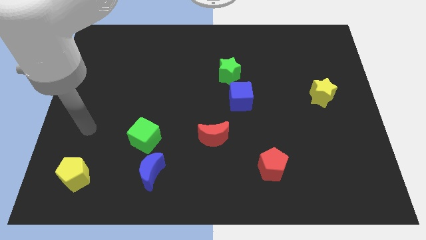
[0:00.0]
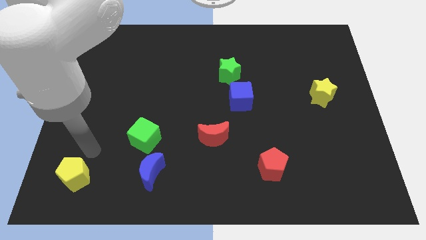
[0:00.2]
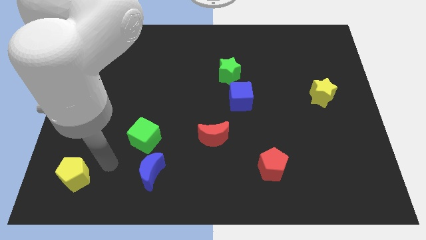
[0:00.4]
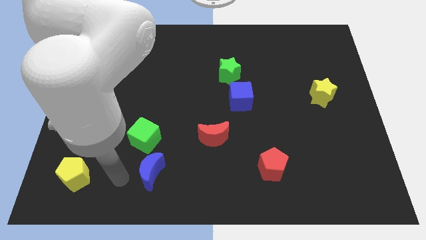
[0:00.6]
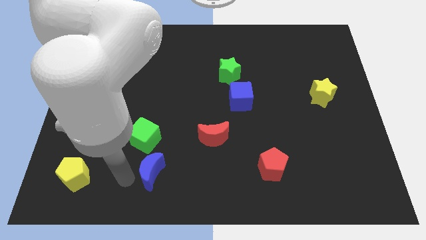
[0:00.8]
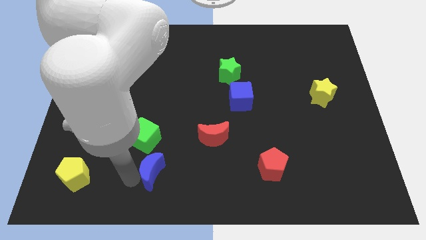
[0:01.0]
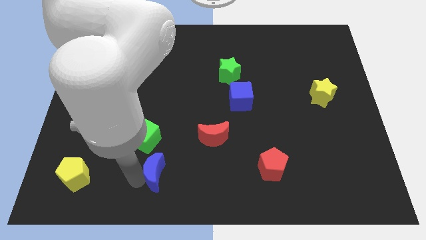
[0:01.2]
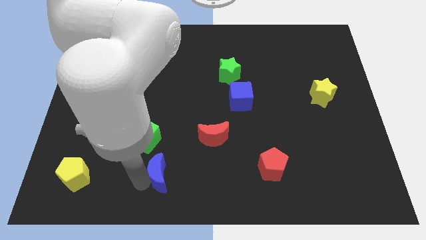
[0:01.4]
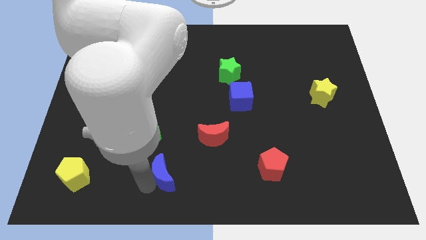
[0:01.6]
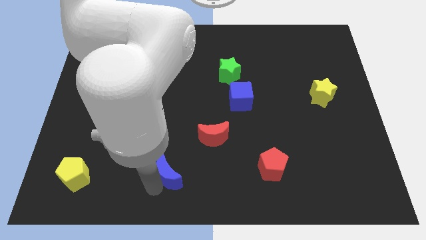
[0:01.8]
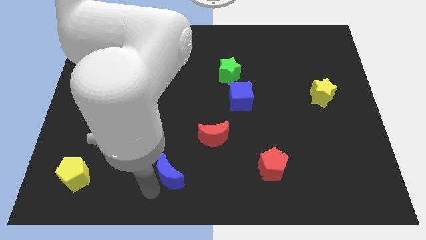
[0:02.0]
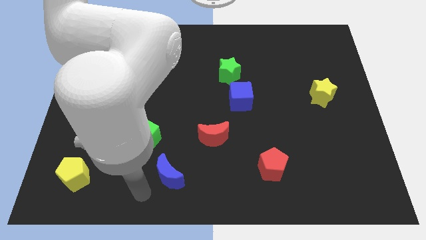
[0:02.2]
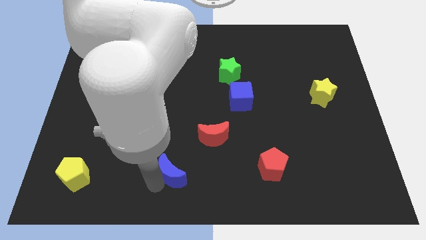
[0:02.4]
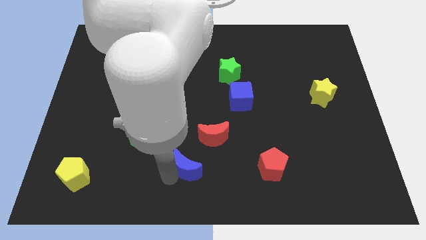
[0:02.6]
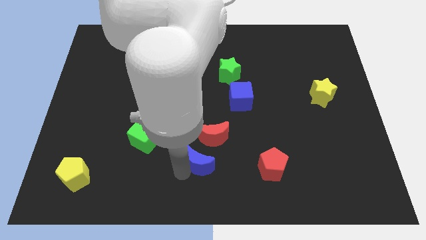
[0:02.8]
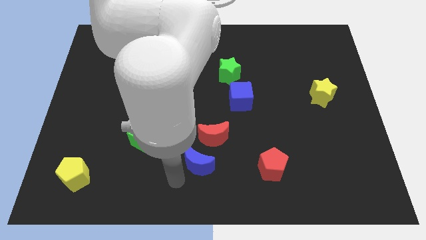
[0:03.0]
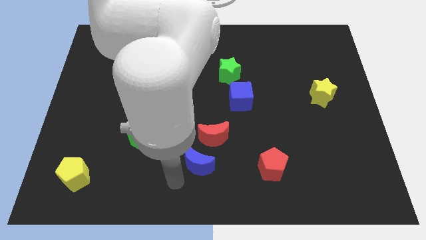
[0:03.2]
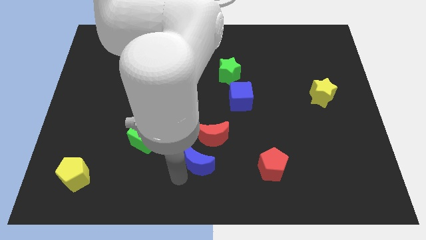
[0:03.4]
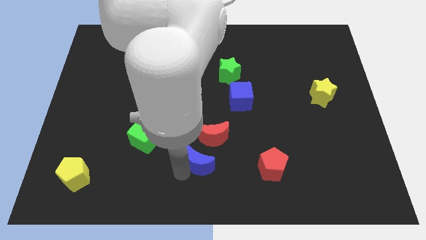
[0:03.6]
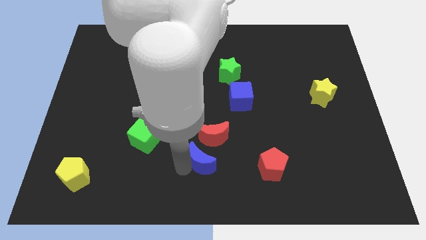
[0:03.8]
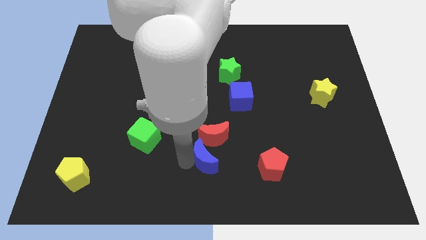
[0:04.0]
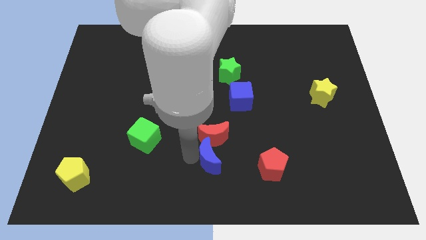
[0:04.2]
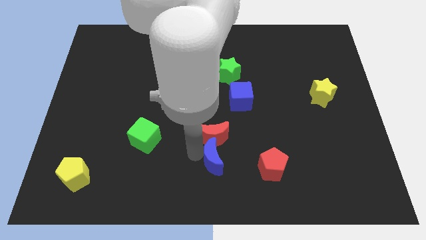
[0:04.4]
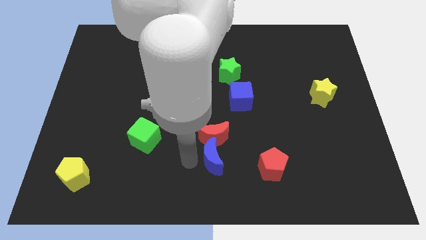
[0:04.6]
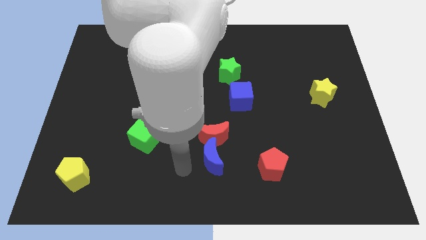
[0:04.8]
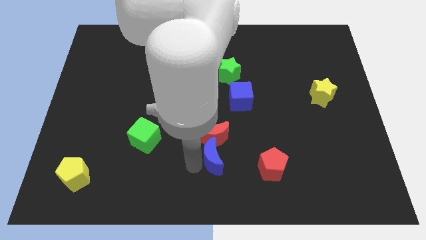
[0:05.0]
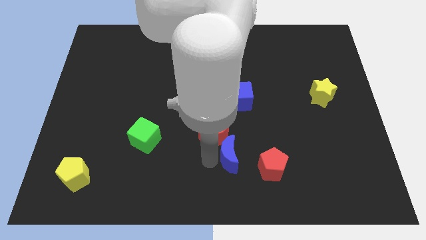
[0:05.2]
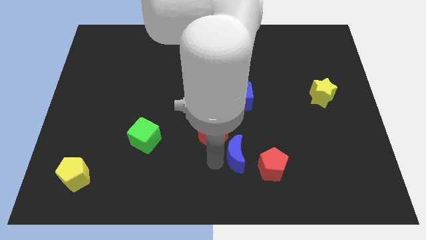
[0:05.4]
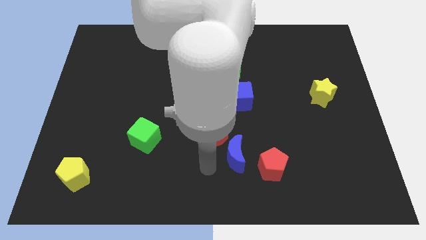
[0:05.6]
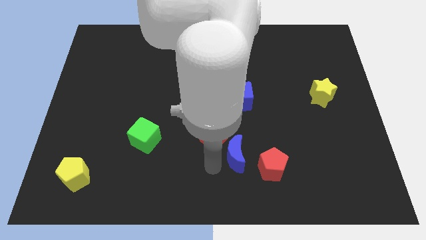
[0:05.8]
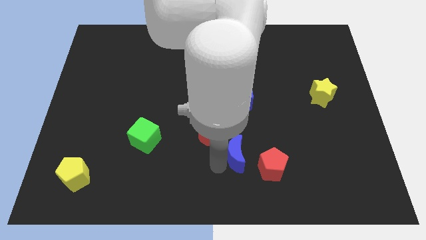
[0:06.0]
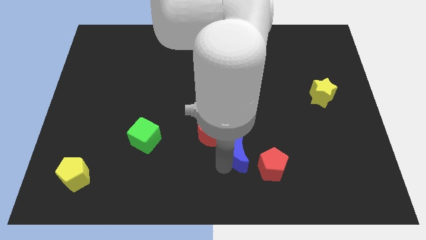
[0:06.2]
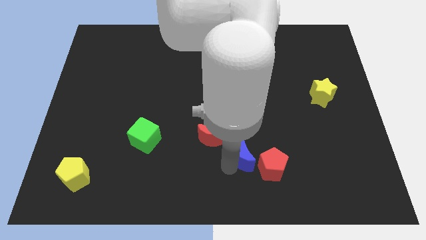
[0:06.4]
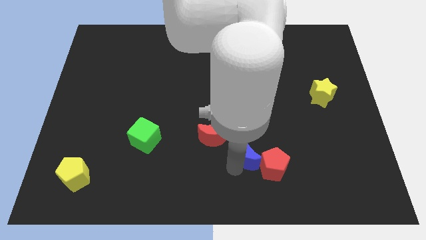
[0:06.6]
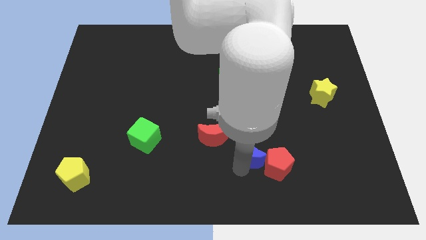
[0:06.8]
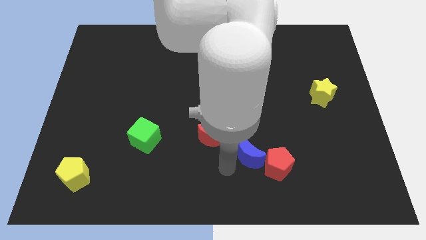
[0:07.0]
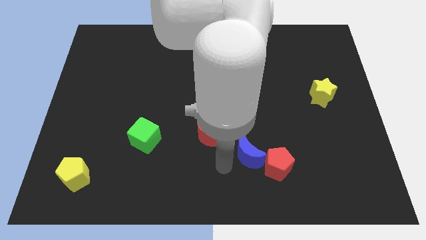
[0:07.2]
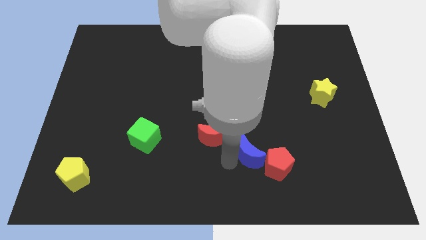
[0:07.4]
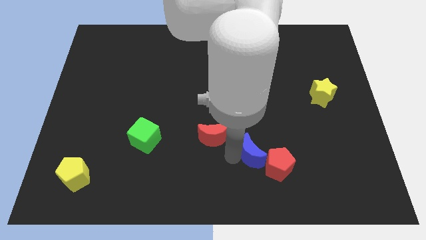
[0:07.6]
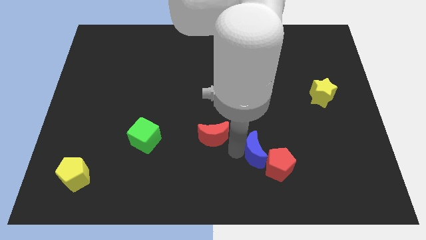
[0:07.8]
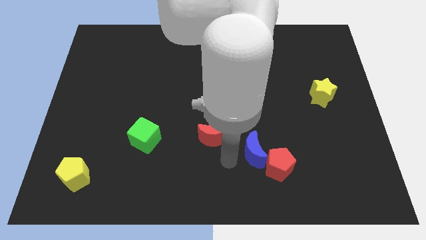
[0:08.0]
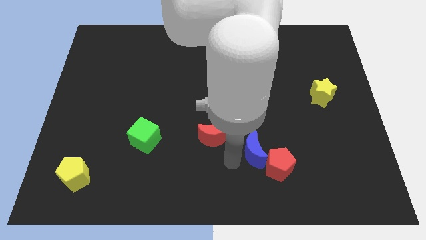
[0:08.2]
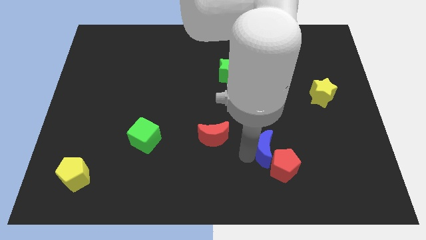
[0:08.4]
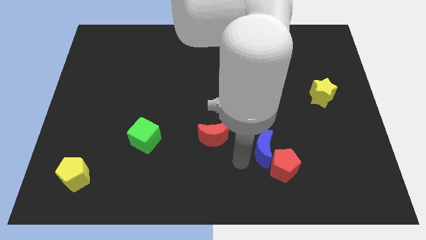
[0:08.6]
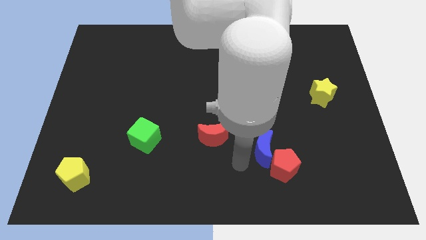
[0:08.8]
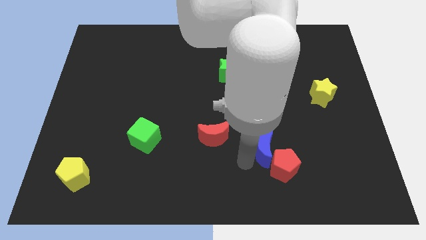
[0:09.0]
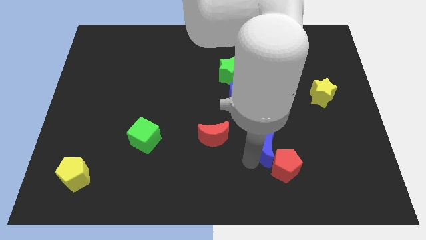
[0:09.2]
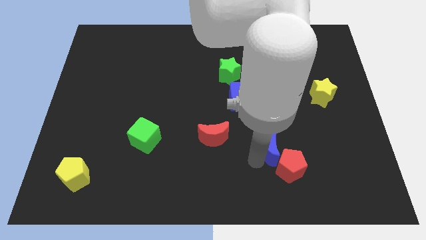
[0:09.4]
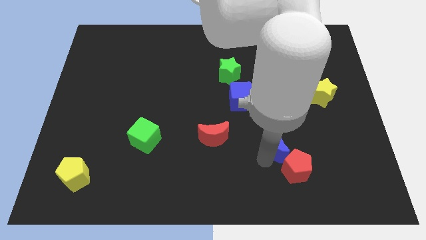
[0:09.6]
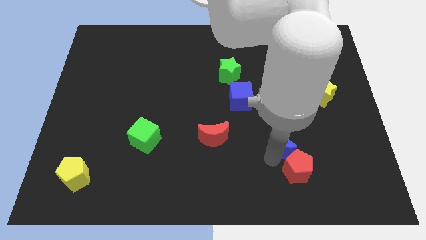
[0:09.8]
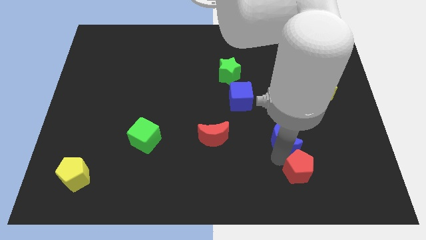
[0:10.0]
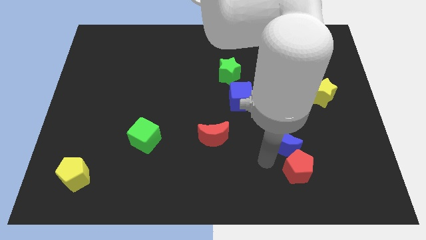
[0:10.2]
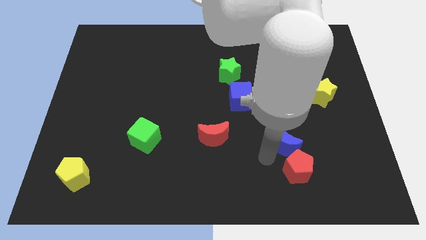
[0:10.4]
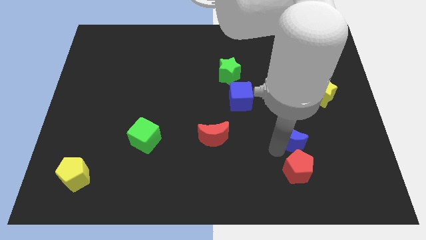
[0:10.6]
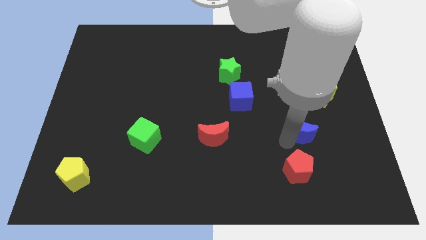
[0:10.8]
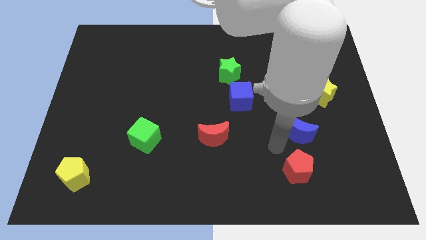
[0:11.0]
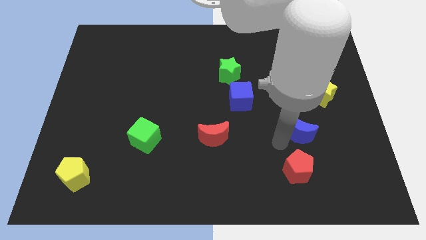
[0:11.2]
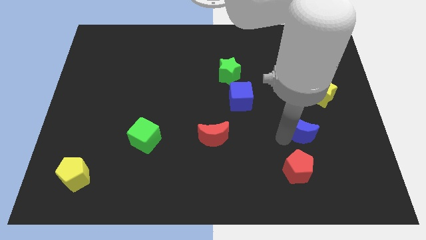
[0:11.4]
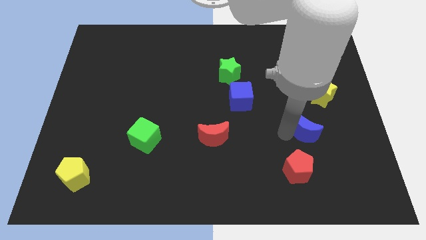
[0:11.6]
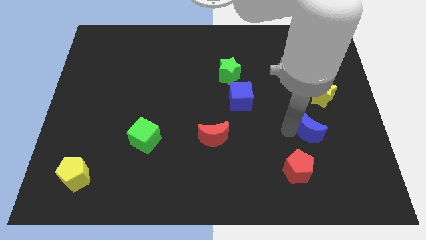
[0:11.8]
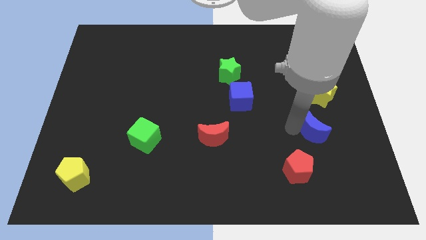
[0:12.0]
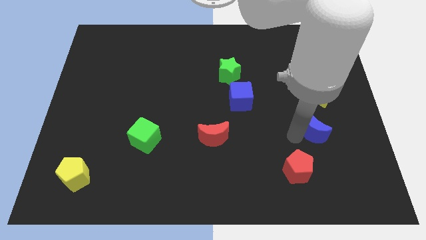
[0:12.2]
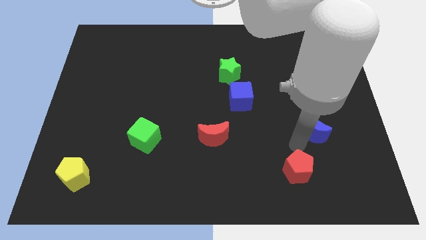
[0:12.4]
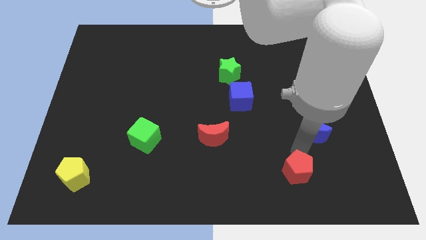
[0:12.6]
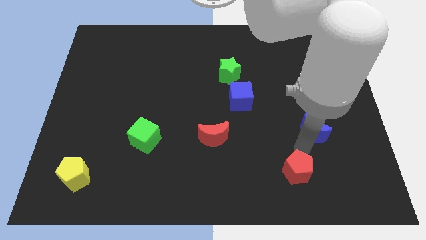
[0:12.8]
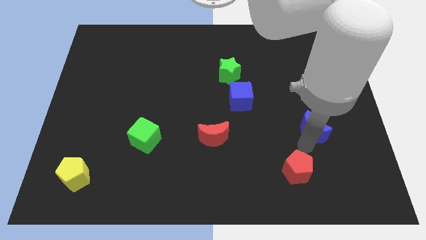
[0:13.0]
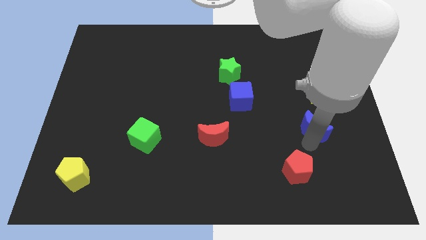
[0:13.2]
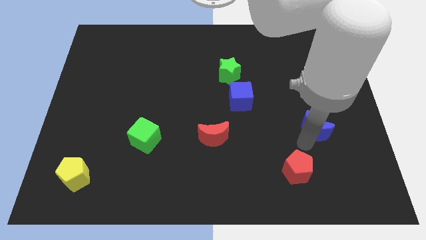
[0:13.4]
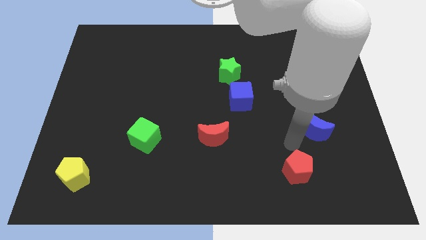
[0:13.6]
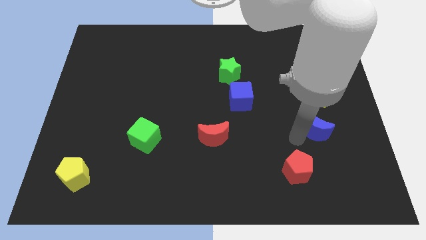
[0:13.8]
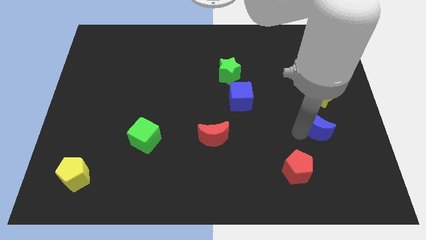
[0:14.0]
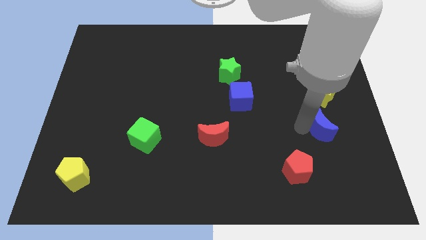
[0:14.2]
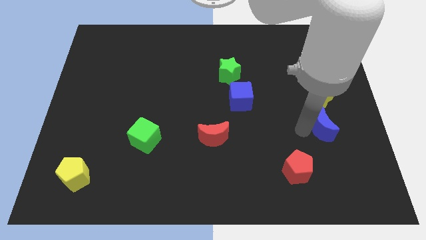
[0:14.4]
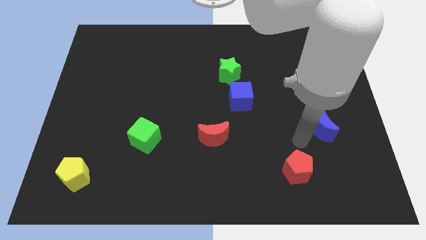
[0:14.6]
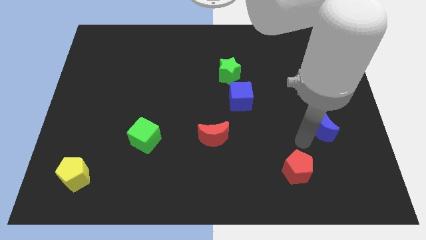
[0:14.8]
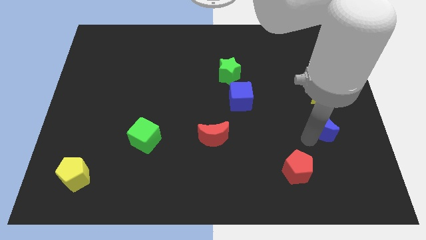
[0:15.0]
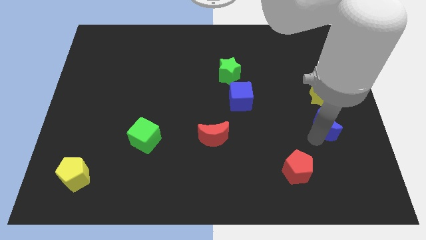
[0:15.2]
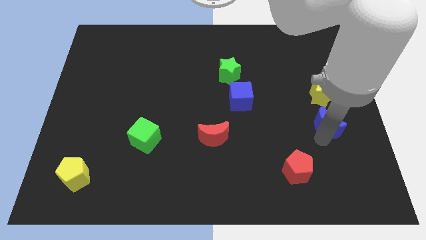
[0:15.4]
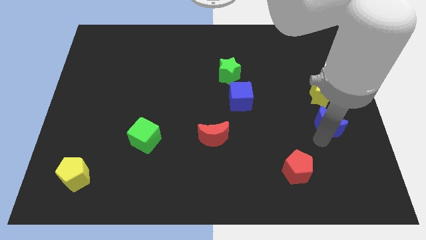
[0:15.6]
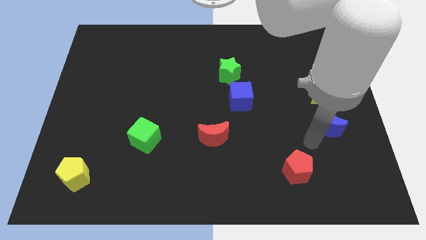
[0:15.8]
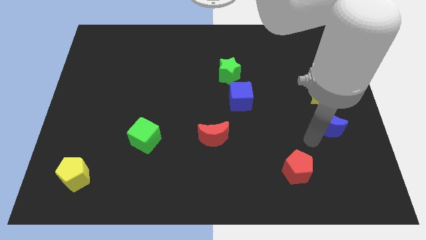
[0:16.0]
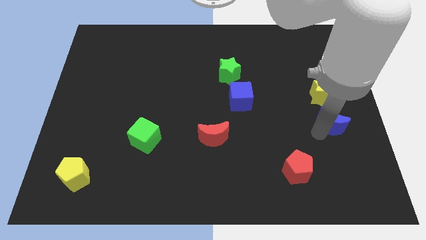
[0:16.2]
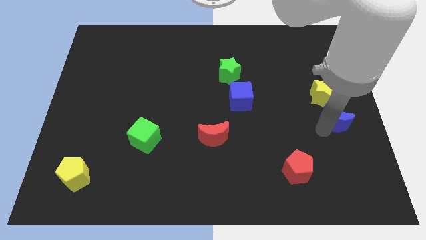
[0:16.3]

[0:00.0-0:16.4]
push the blue moon to the right side
